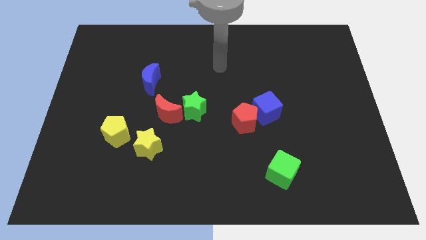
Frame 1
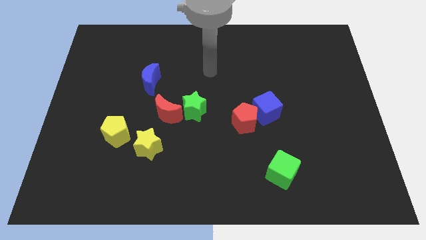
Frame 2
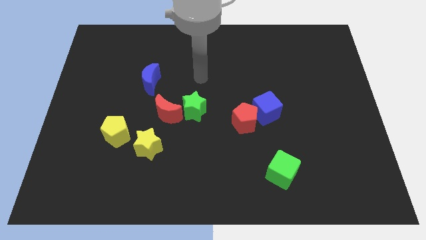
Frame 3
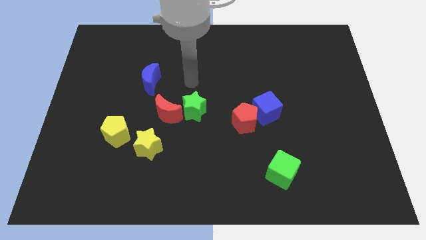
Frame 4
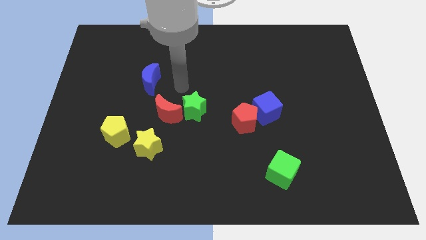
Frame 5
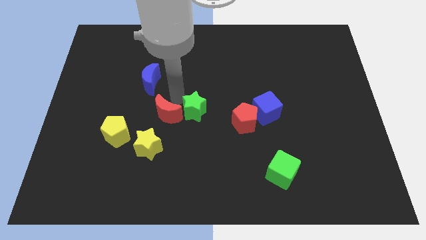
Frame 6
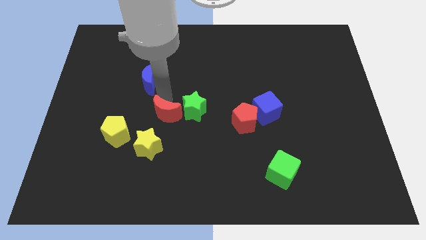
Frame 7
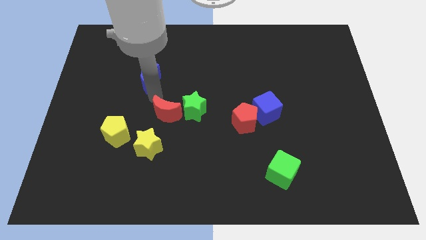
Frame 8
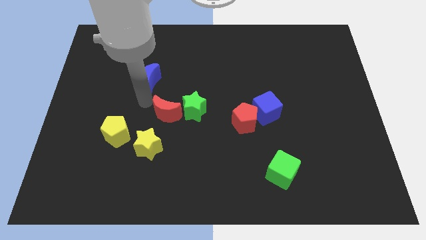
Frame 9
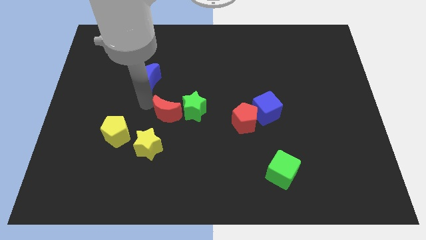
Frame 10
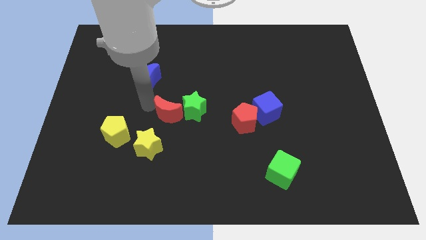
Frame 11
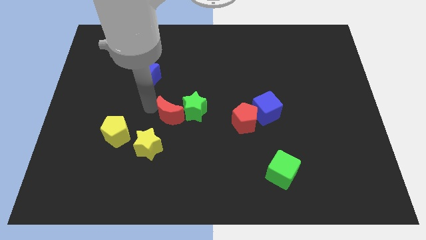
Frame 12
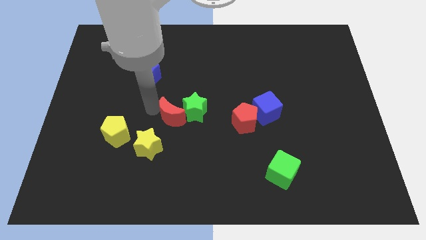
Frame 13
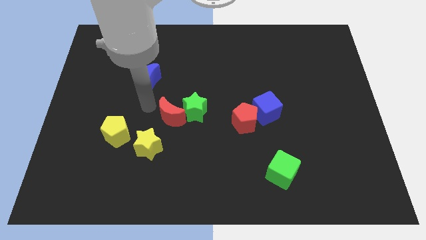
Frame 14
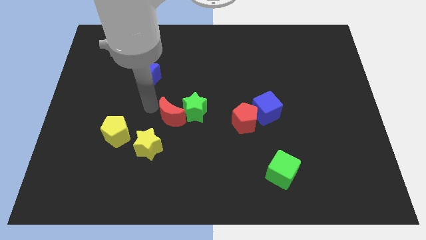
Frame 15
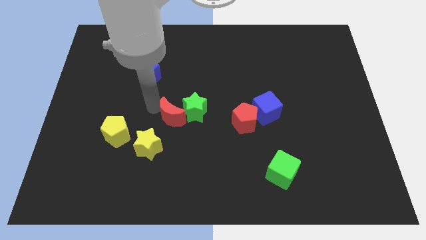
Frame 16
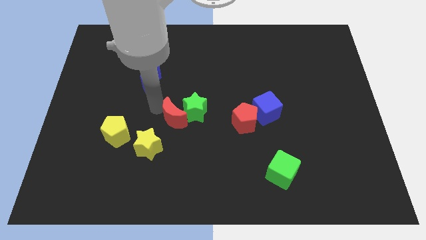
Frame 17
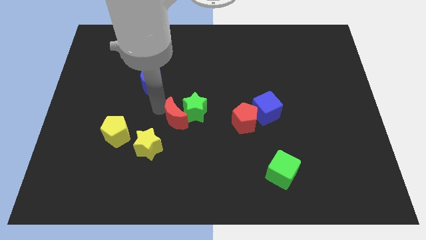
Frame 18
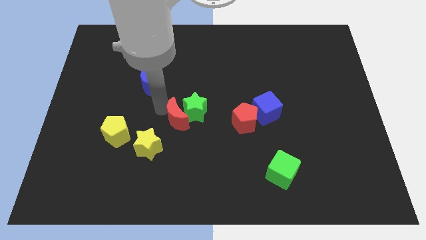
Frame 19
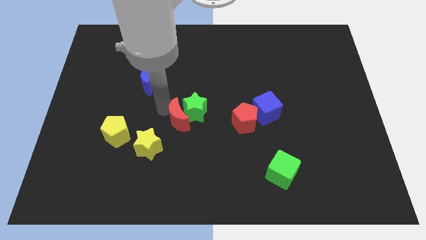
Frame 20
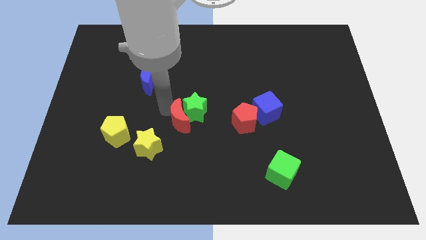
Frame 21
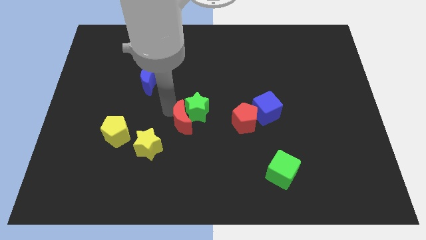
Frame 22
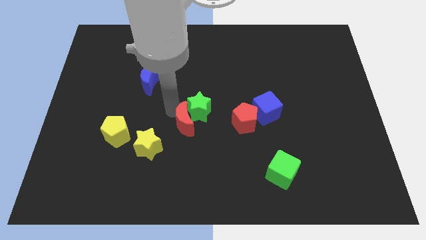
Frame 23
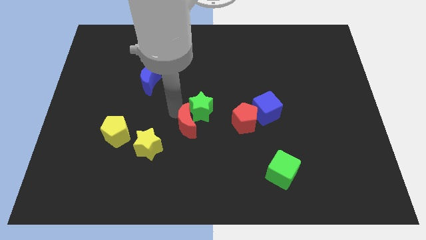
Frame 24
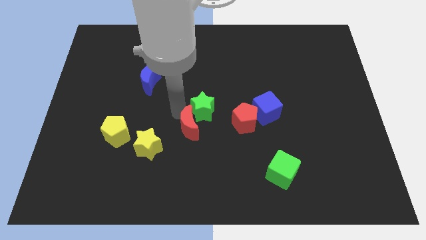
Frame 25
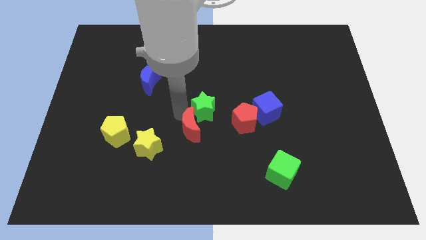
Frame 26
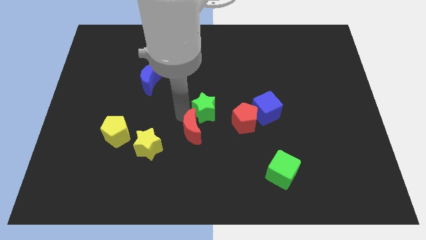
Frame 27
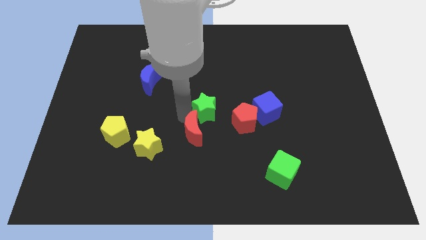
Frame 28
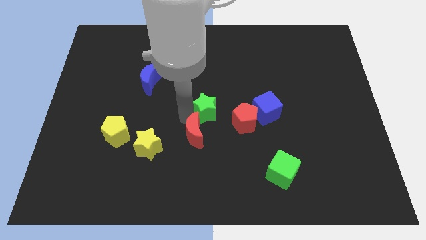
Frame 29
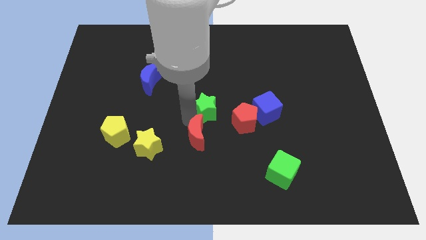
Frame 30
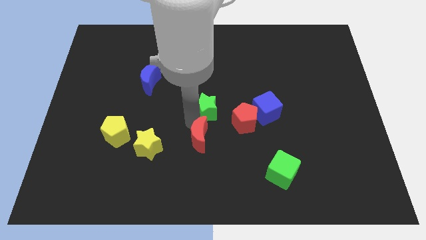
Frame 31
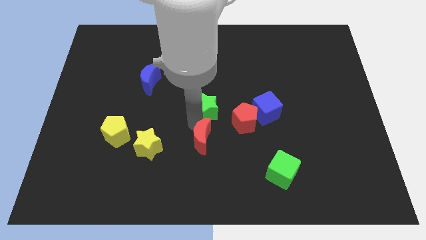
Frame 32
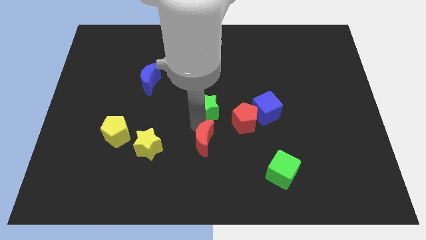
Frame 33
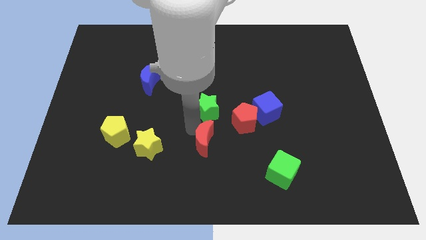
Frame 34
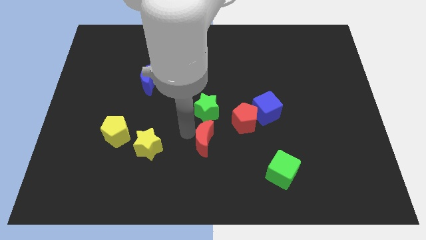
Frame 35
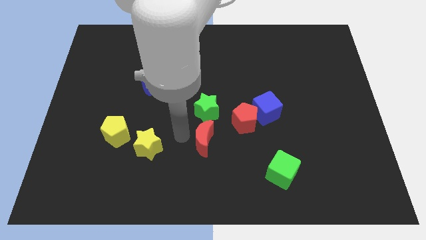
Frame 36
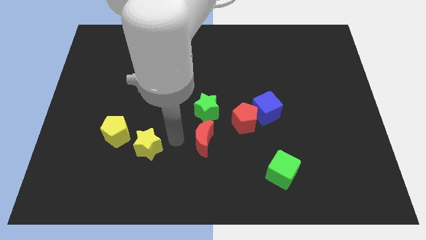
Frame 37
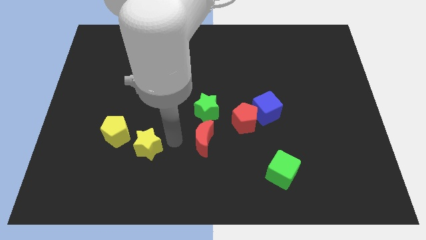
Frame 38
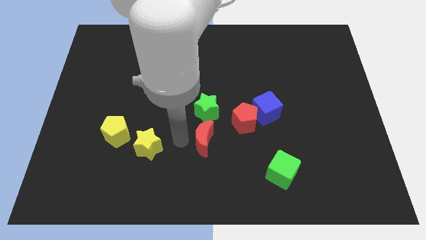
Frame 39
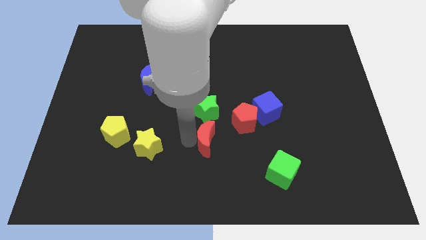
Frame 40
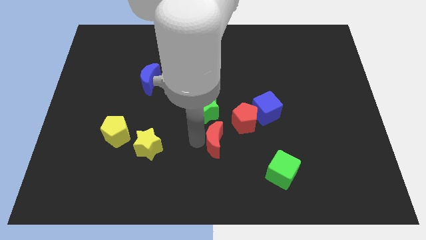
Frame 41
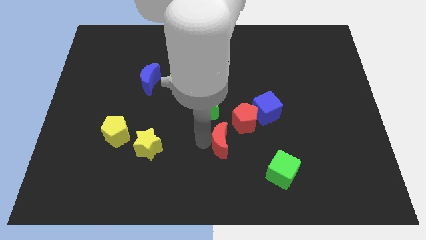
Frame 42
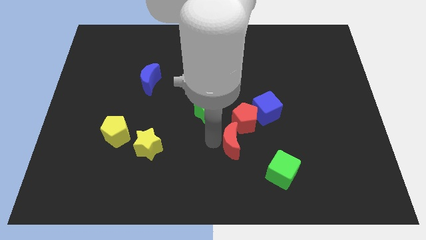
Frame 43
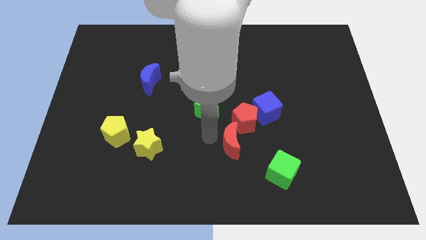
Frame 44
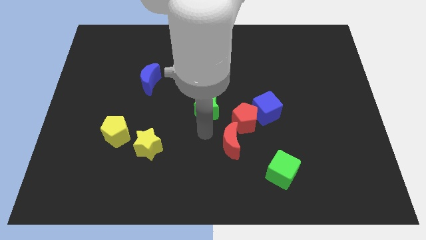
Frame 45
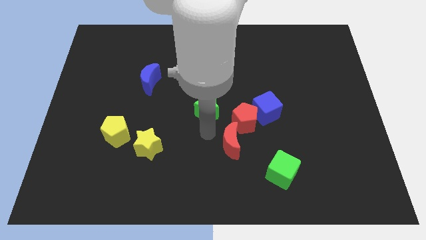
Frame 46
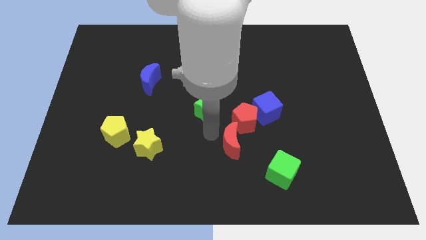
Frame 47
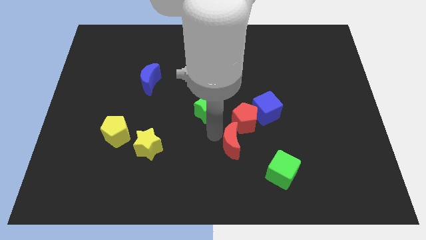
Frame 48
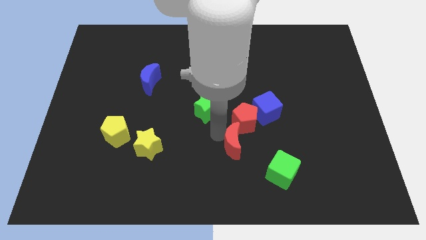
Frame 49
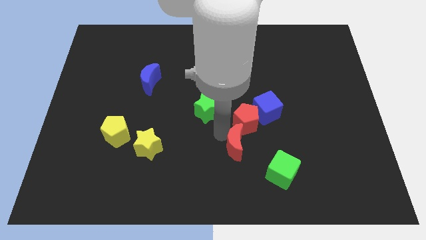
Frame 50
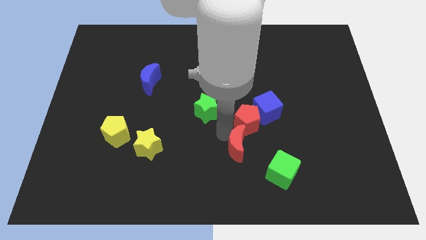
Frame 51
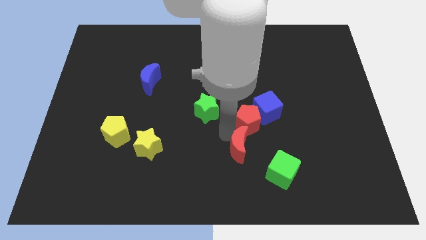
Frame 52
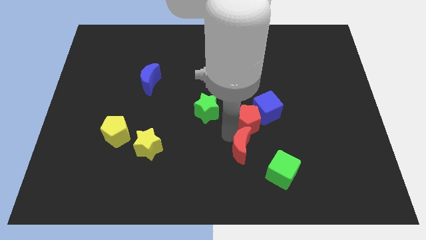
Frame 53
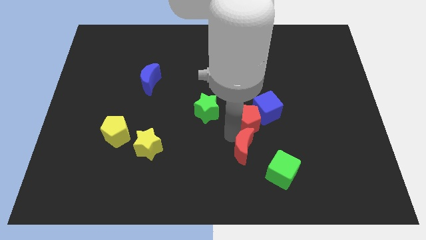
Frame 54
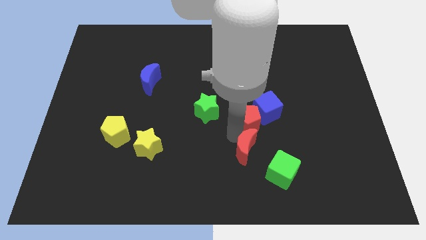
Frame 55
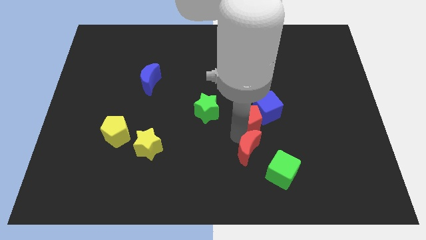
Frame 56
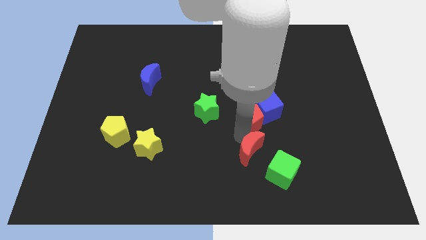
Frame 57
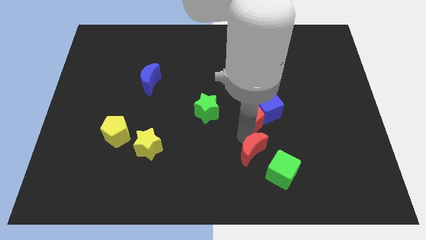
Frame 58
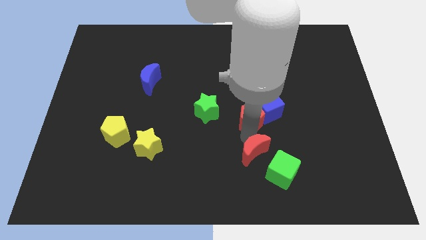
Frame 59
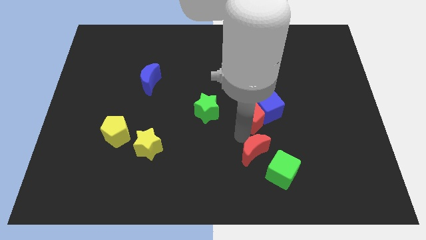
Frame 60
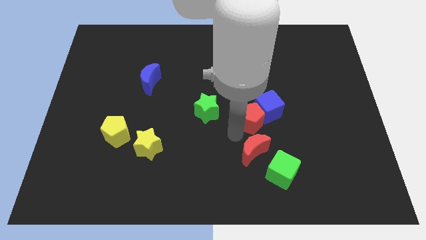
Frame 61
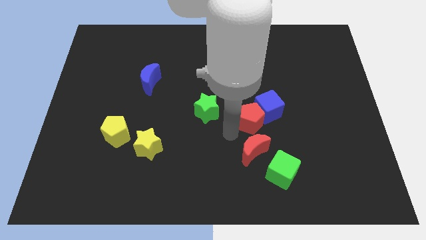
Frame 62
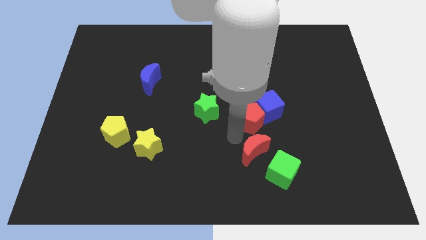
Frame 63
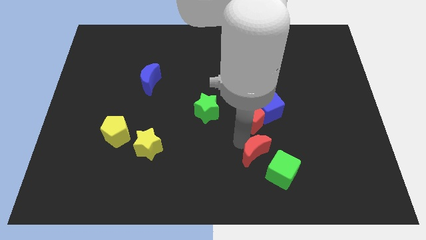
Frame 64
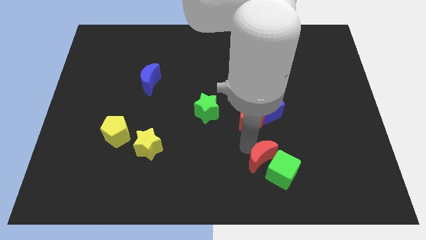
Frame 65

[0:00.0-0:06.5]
slide the red moon next to the green cube
